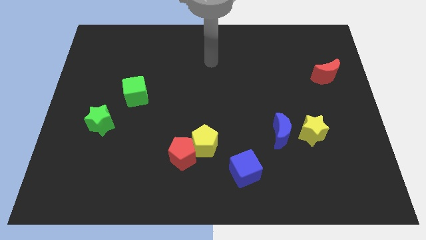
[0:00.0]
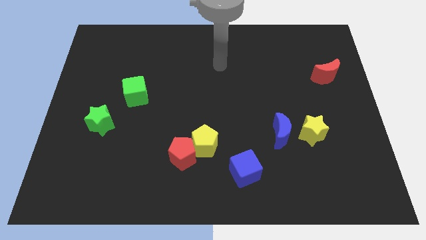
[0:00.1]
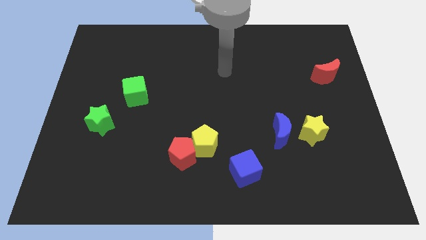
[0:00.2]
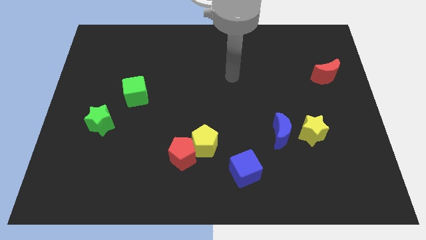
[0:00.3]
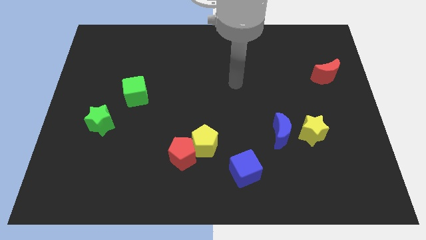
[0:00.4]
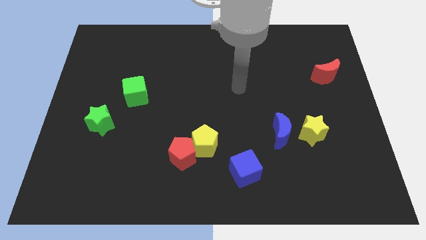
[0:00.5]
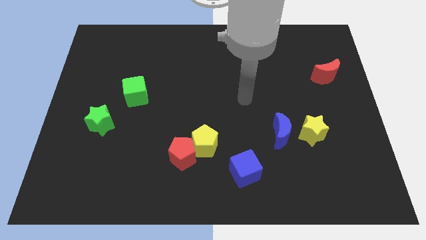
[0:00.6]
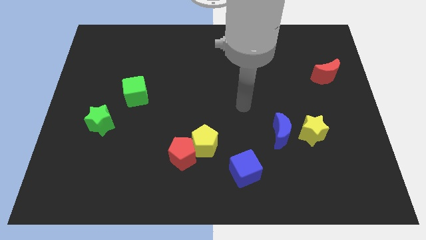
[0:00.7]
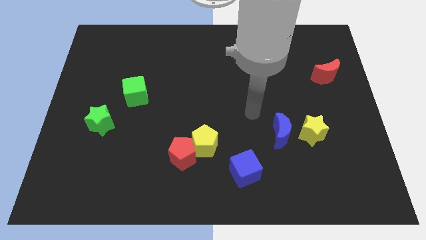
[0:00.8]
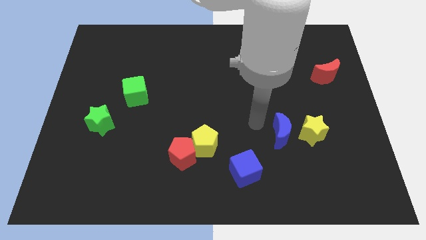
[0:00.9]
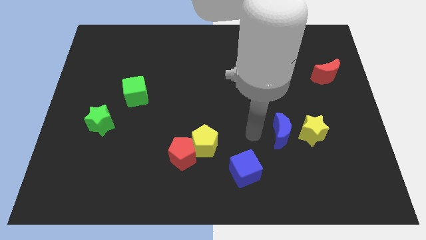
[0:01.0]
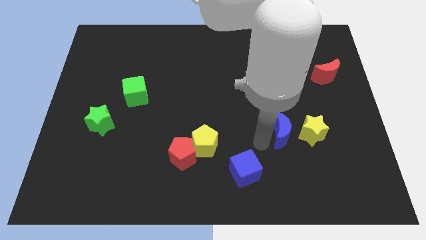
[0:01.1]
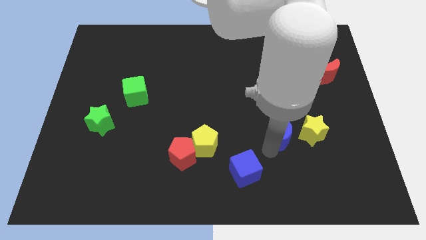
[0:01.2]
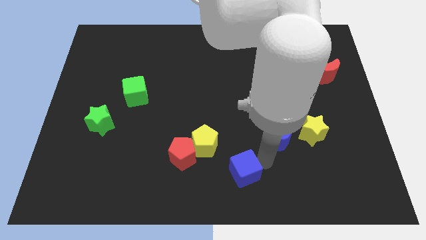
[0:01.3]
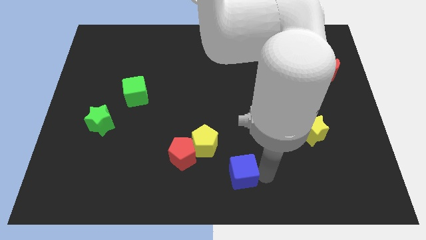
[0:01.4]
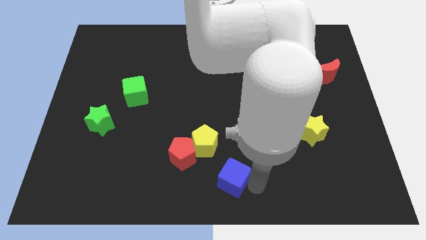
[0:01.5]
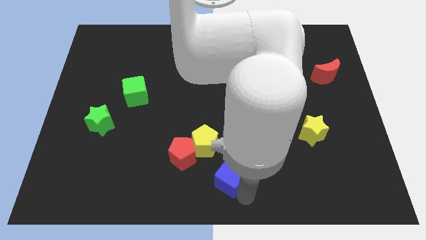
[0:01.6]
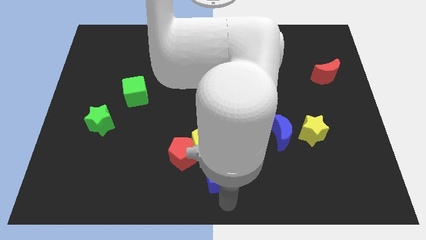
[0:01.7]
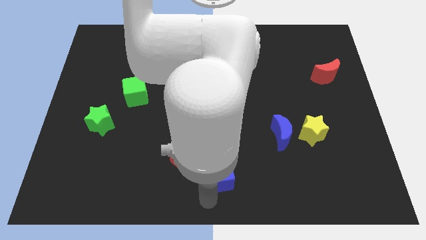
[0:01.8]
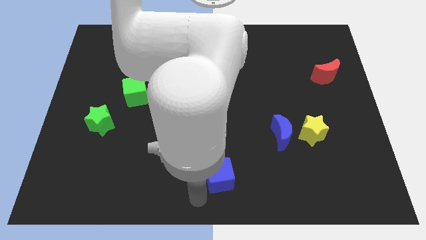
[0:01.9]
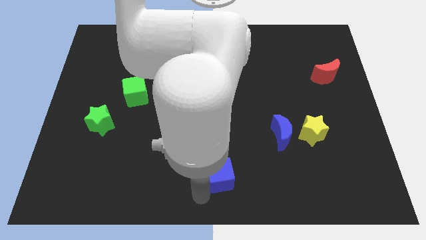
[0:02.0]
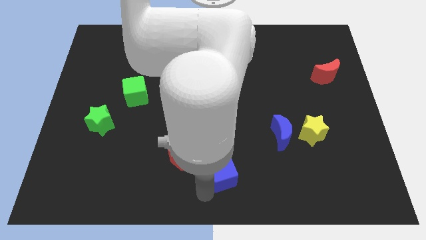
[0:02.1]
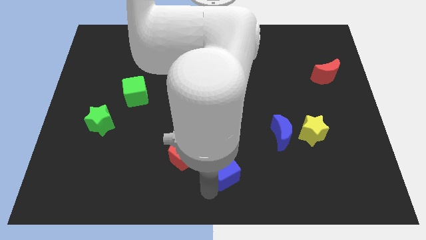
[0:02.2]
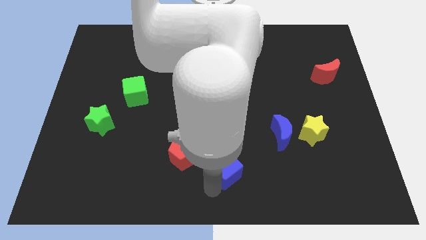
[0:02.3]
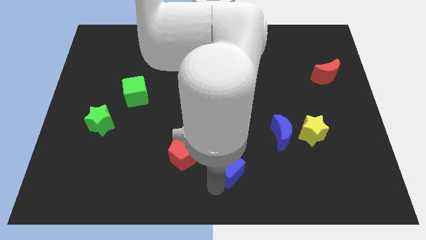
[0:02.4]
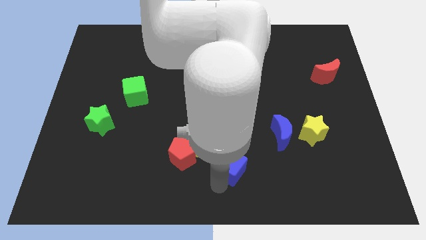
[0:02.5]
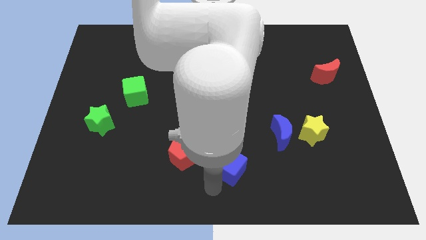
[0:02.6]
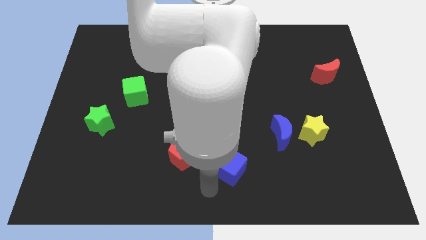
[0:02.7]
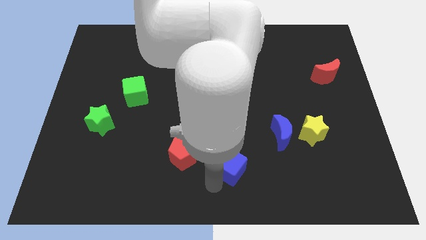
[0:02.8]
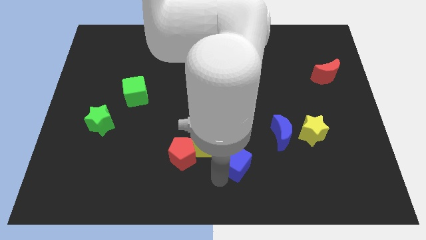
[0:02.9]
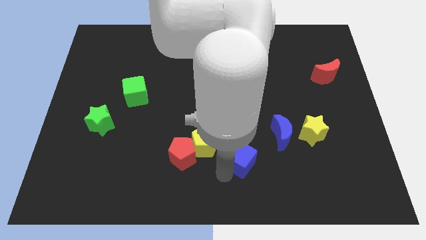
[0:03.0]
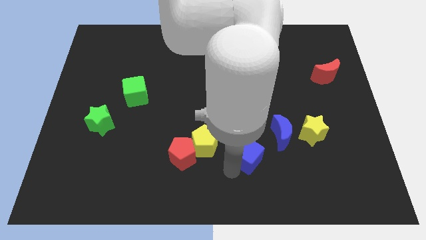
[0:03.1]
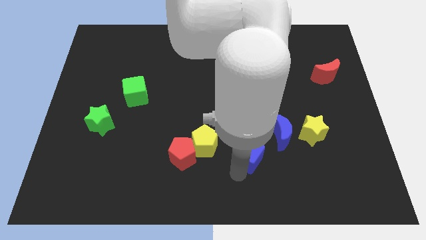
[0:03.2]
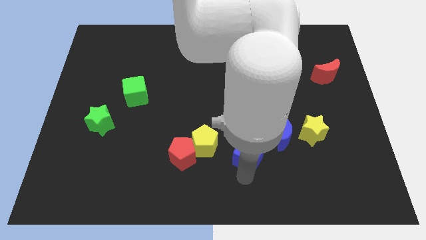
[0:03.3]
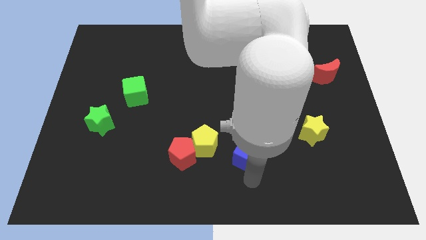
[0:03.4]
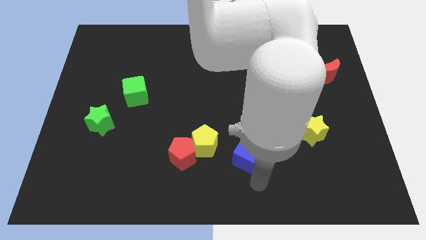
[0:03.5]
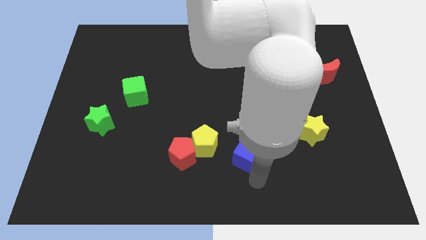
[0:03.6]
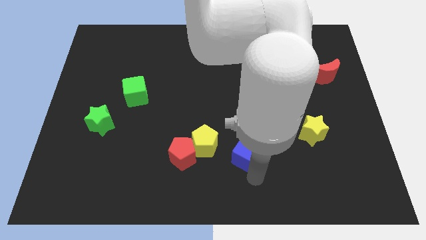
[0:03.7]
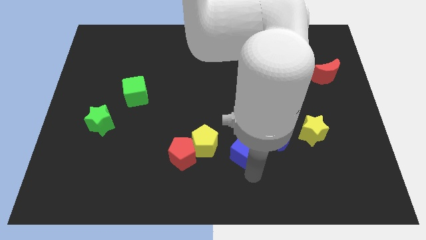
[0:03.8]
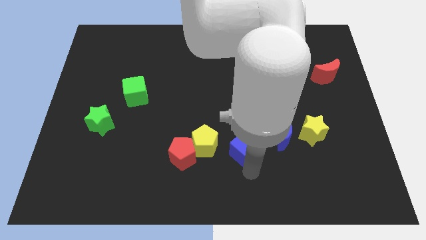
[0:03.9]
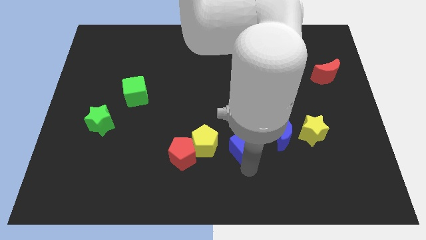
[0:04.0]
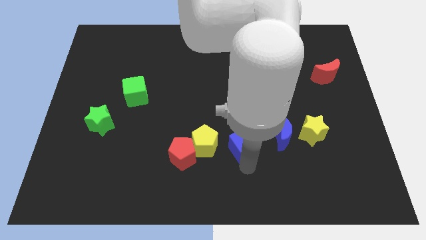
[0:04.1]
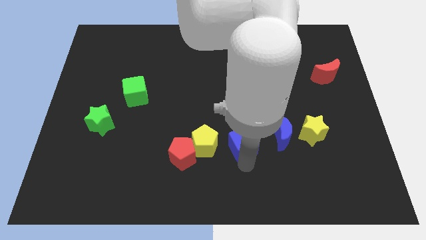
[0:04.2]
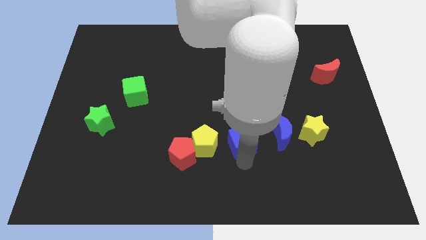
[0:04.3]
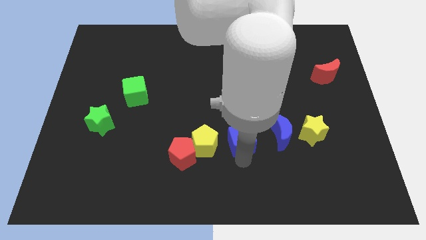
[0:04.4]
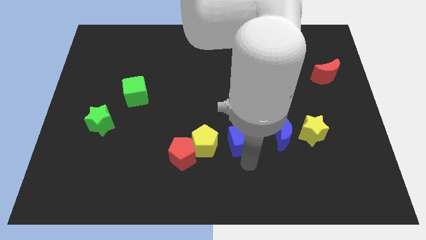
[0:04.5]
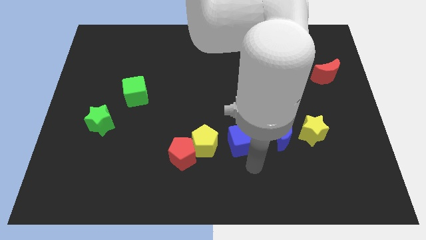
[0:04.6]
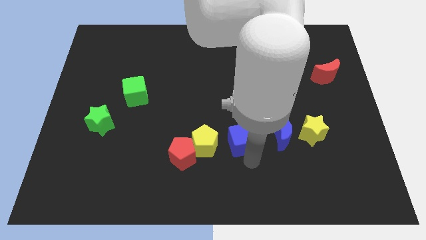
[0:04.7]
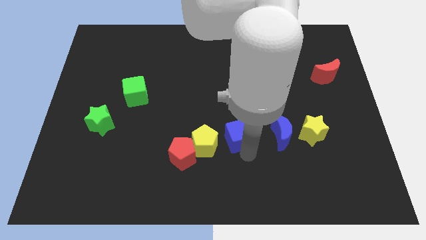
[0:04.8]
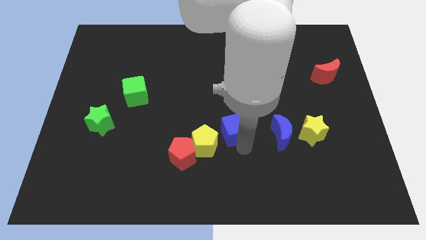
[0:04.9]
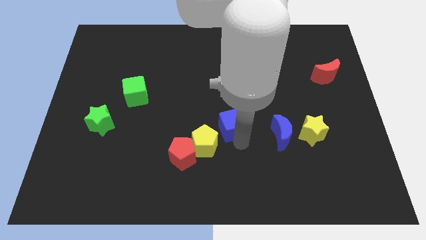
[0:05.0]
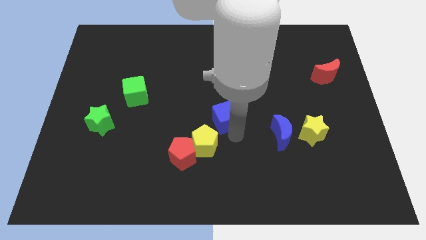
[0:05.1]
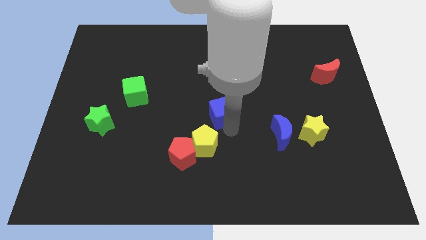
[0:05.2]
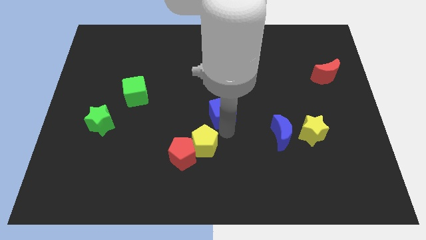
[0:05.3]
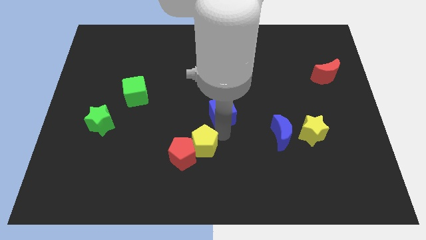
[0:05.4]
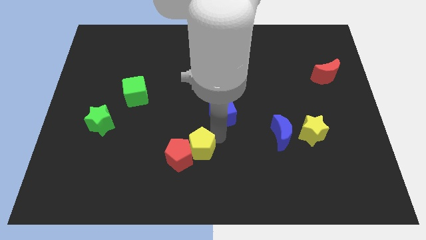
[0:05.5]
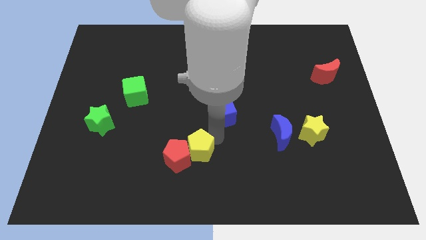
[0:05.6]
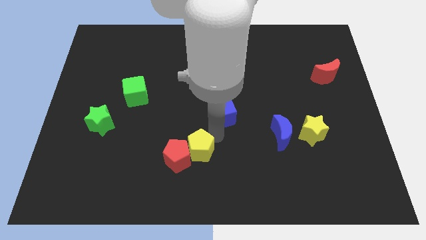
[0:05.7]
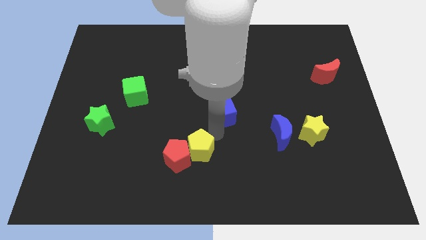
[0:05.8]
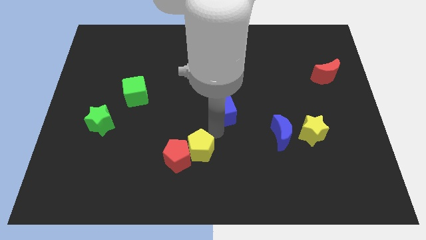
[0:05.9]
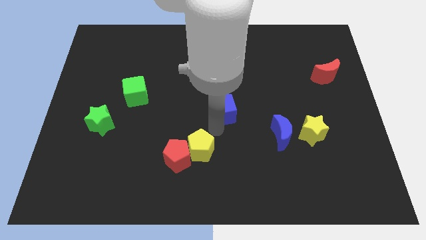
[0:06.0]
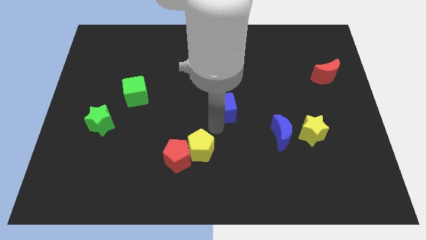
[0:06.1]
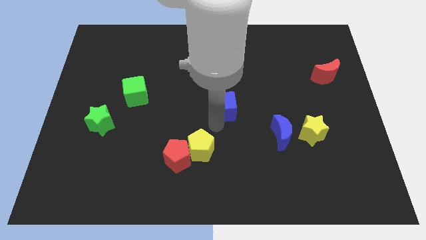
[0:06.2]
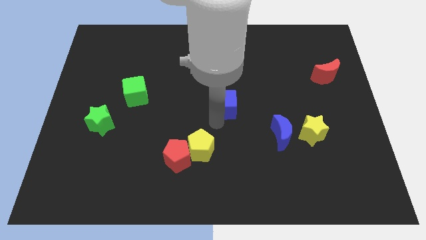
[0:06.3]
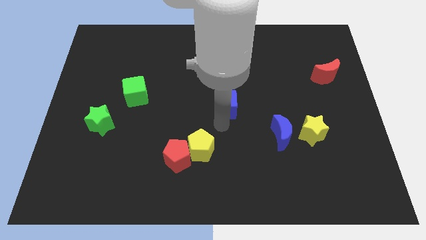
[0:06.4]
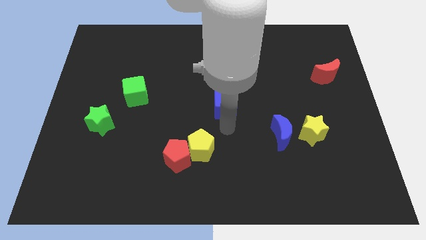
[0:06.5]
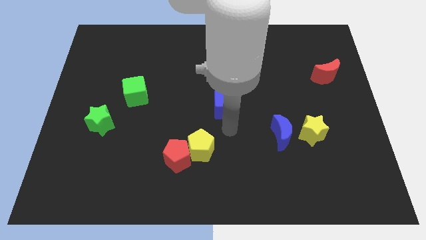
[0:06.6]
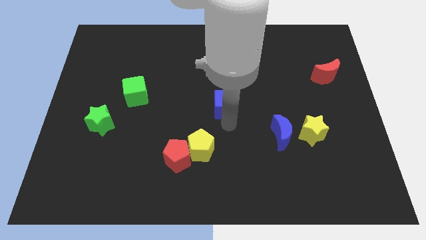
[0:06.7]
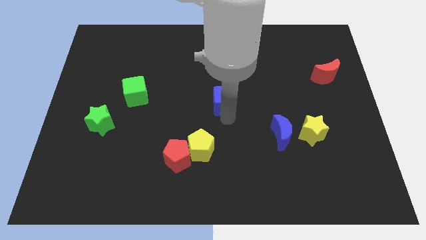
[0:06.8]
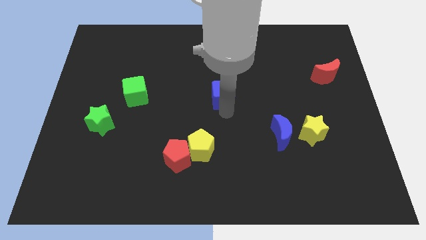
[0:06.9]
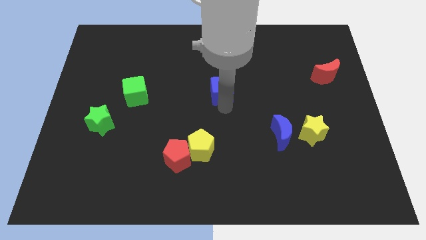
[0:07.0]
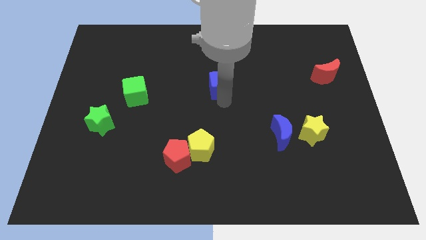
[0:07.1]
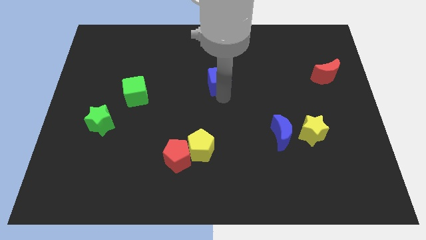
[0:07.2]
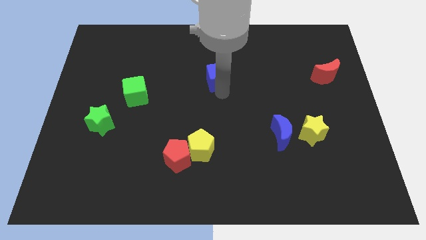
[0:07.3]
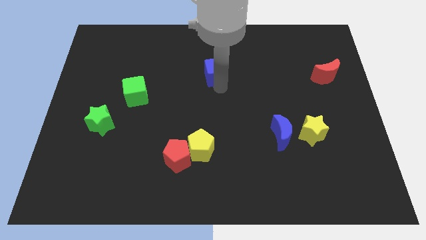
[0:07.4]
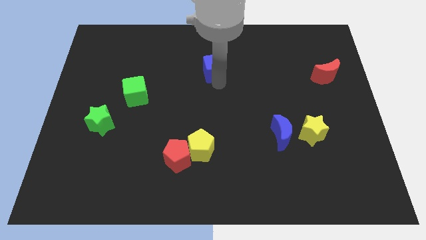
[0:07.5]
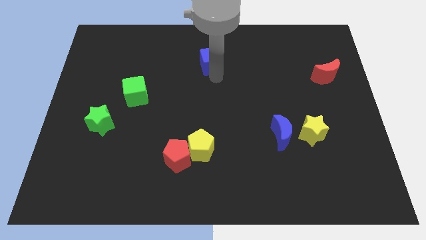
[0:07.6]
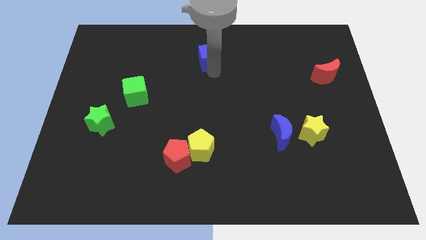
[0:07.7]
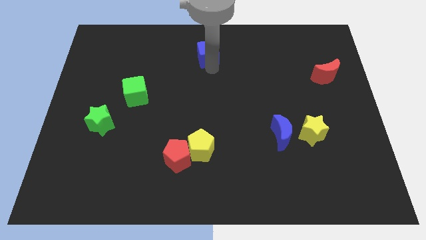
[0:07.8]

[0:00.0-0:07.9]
put the blue cube to the top side
